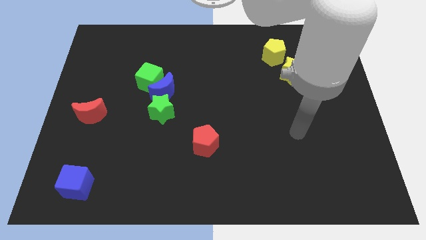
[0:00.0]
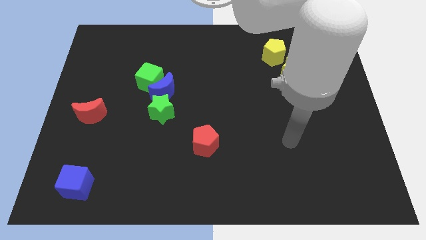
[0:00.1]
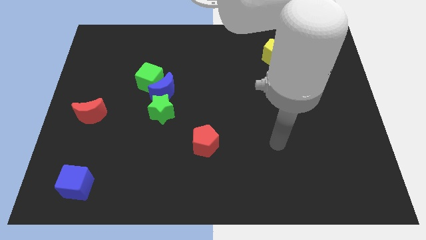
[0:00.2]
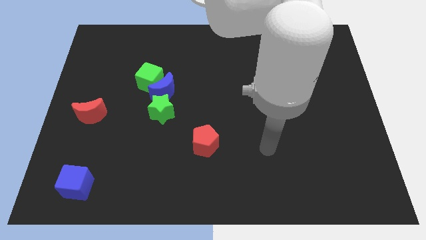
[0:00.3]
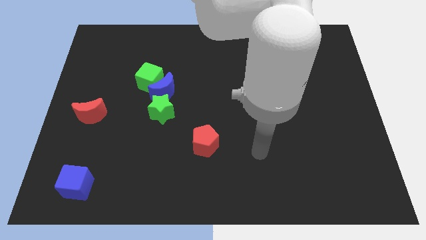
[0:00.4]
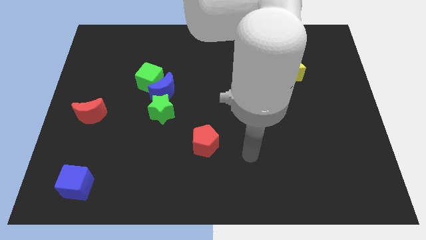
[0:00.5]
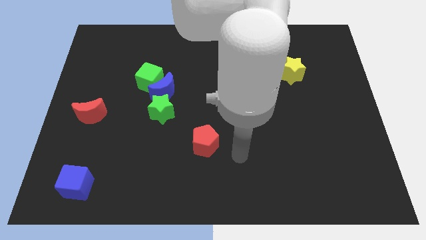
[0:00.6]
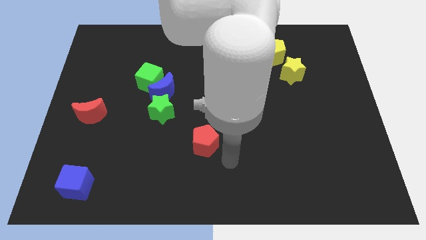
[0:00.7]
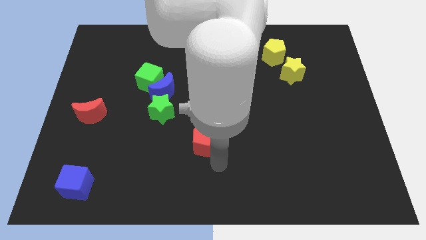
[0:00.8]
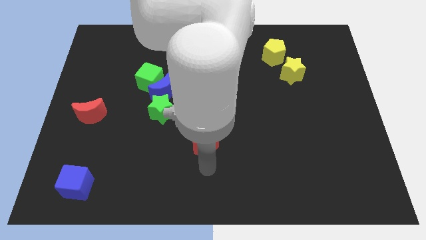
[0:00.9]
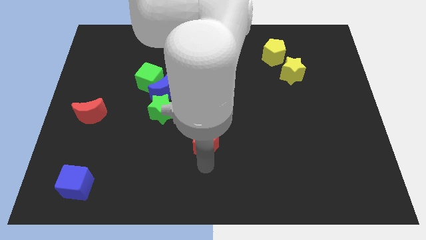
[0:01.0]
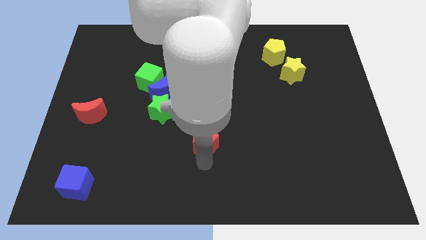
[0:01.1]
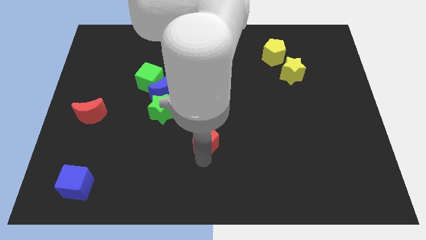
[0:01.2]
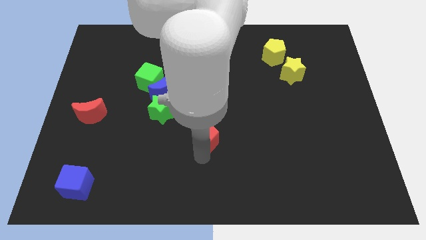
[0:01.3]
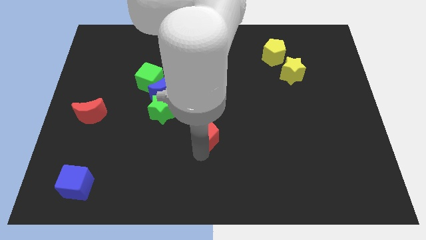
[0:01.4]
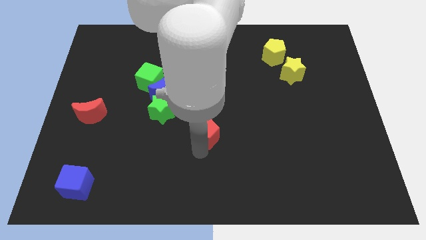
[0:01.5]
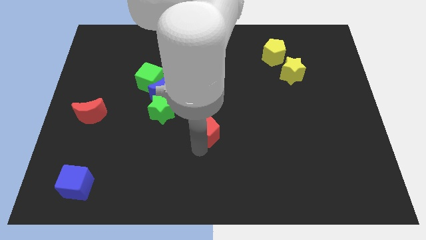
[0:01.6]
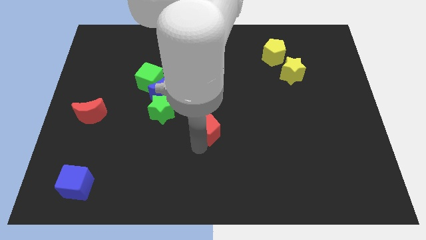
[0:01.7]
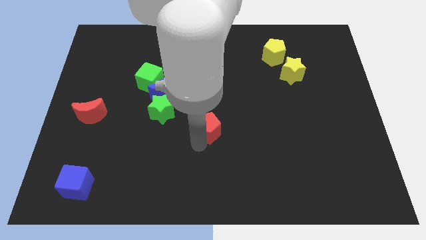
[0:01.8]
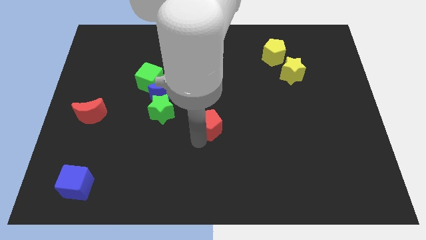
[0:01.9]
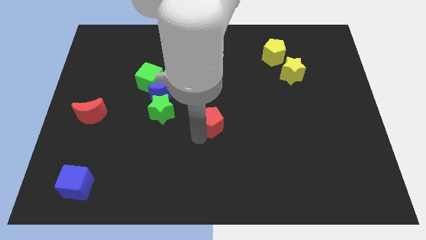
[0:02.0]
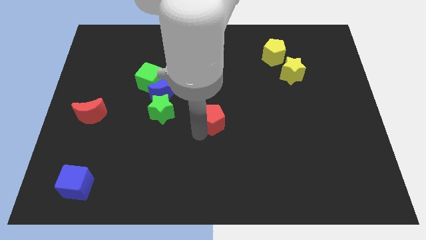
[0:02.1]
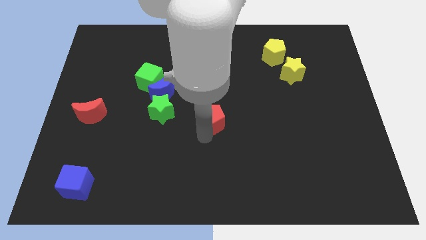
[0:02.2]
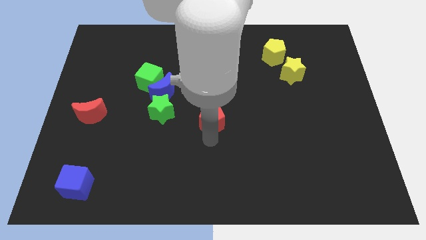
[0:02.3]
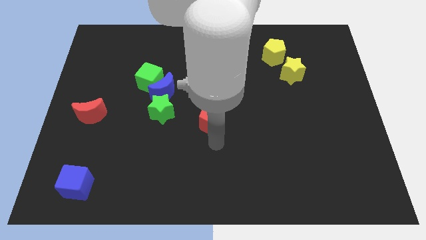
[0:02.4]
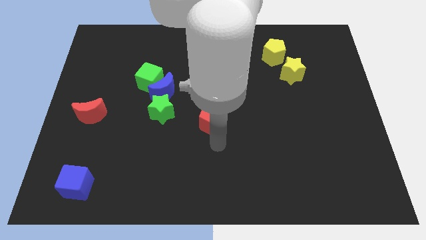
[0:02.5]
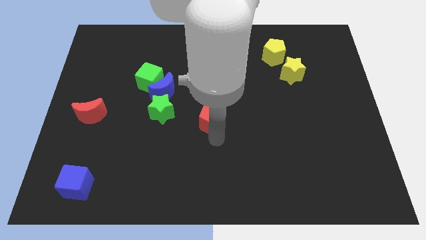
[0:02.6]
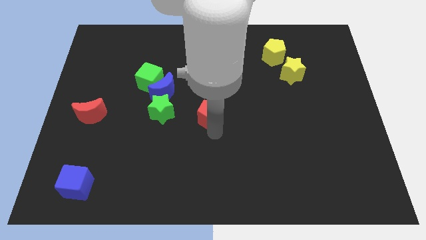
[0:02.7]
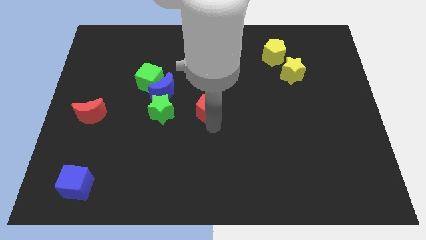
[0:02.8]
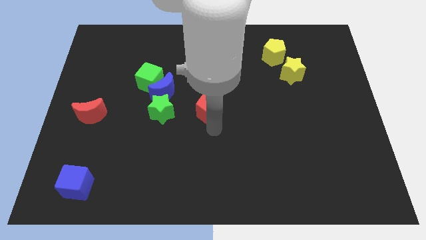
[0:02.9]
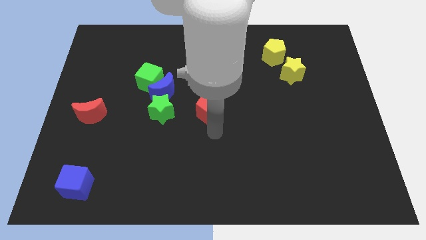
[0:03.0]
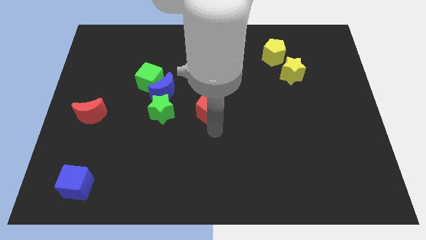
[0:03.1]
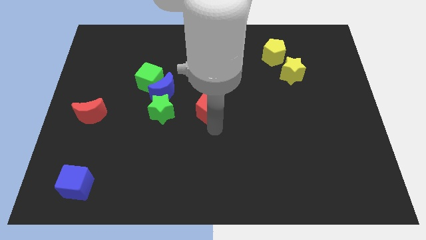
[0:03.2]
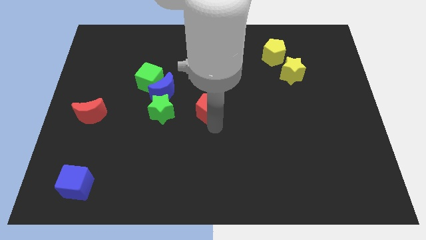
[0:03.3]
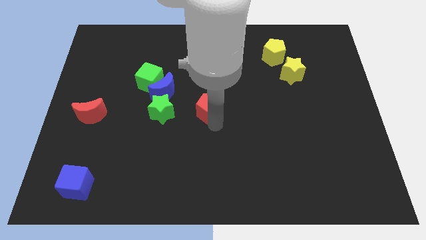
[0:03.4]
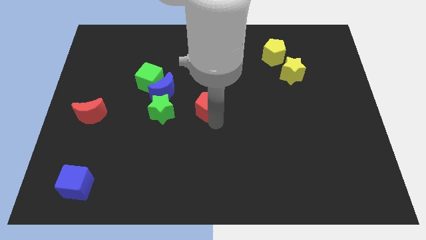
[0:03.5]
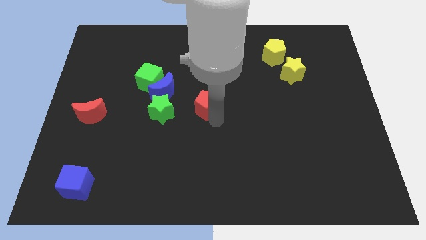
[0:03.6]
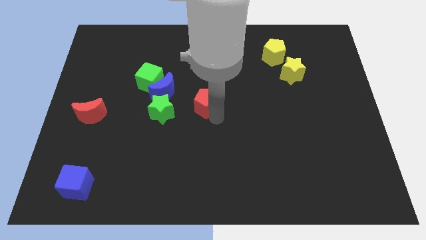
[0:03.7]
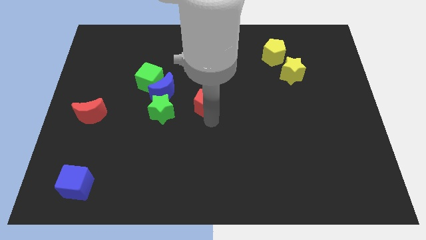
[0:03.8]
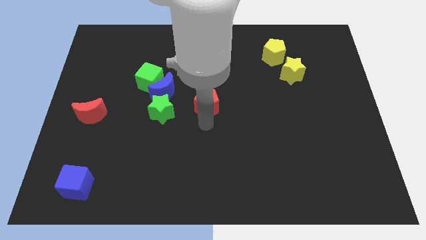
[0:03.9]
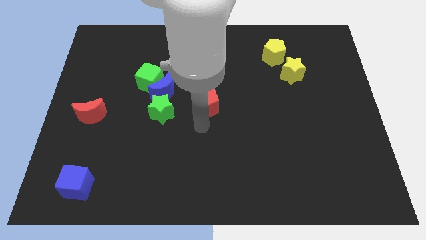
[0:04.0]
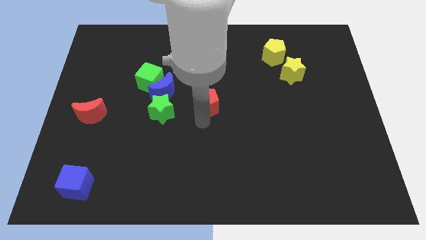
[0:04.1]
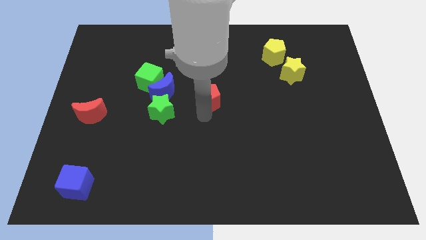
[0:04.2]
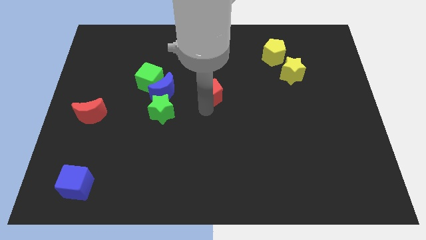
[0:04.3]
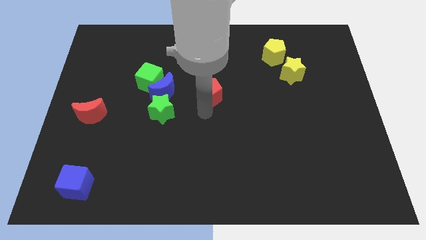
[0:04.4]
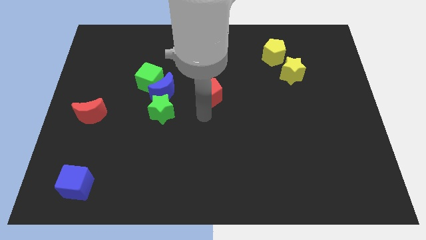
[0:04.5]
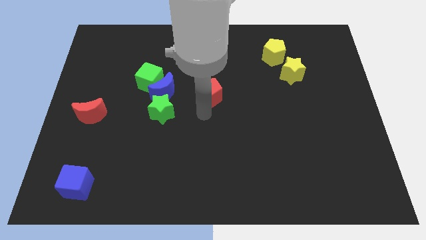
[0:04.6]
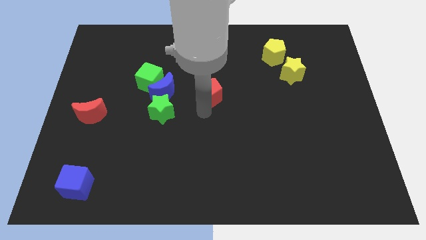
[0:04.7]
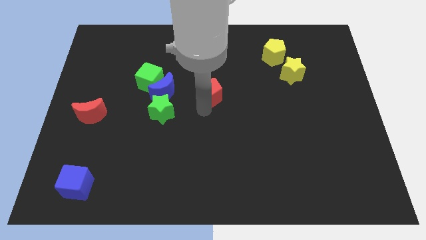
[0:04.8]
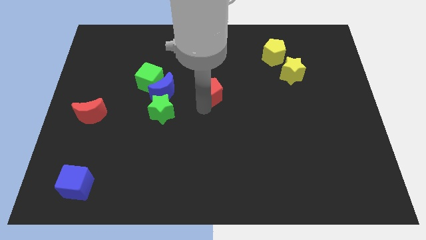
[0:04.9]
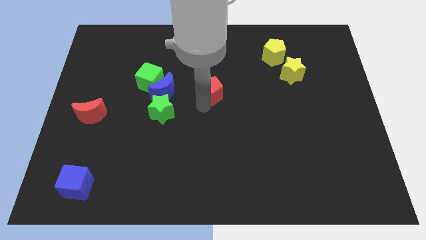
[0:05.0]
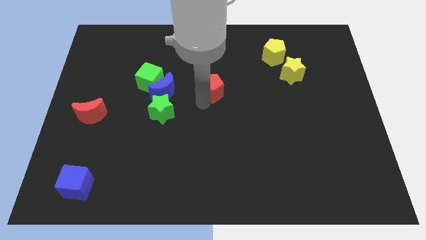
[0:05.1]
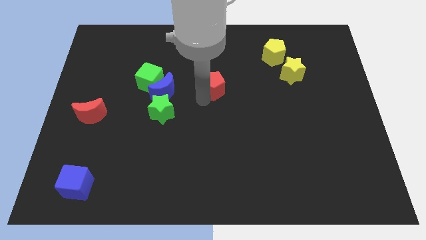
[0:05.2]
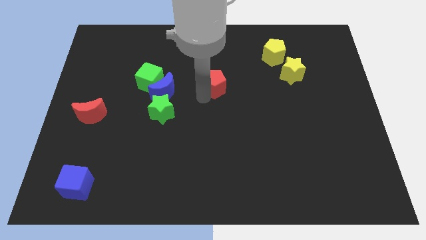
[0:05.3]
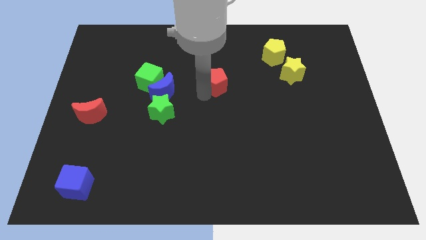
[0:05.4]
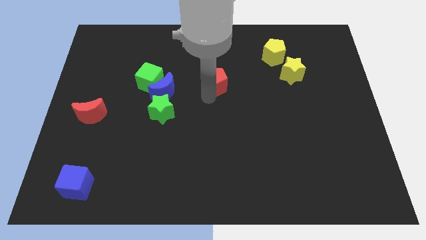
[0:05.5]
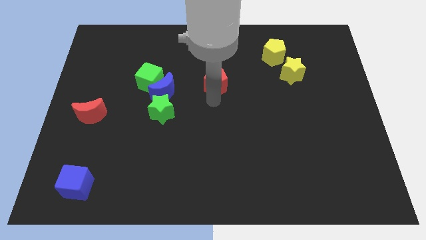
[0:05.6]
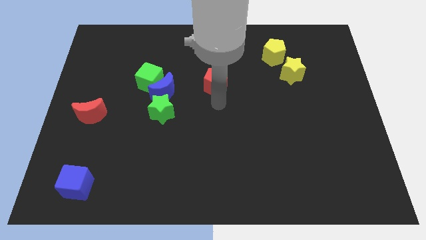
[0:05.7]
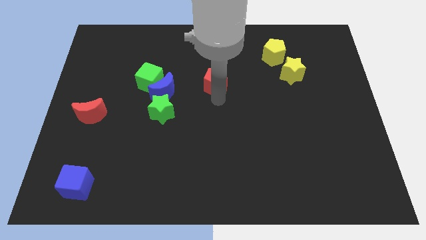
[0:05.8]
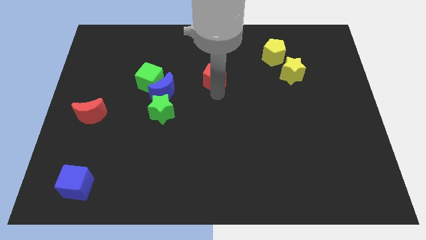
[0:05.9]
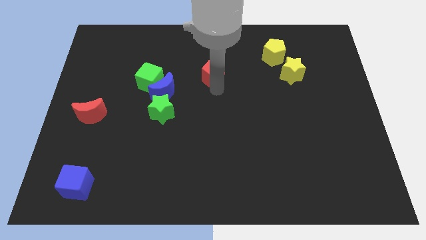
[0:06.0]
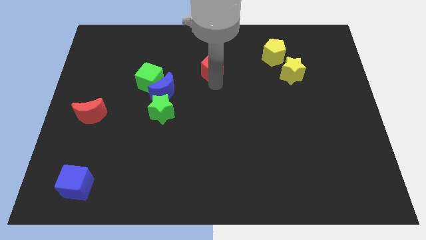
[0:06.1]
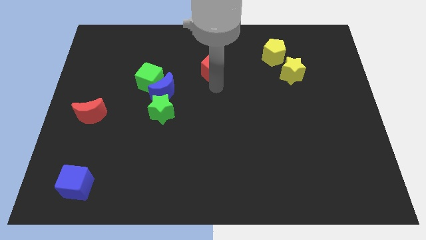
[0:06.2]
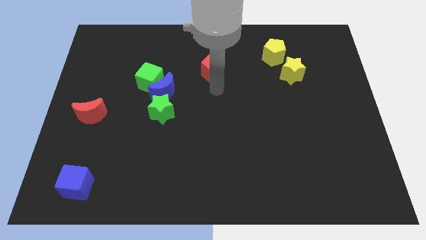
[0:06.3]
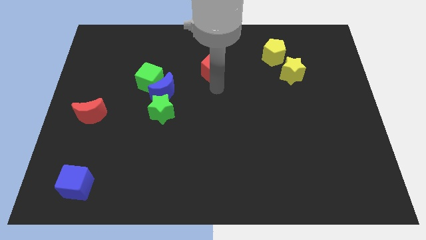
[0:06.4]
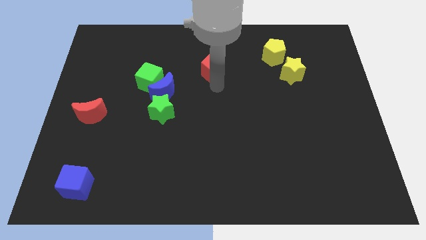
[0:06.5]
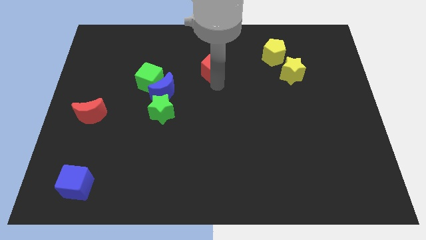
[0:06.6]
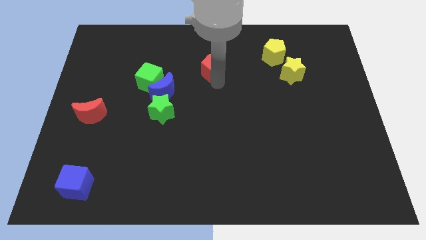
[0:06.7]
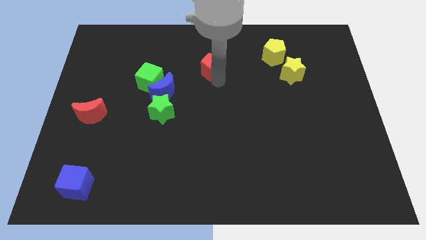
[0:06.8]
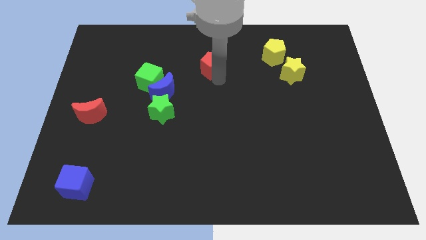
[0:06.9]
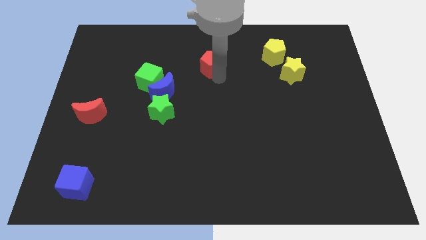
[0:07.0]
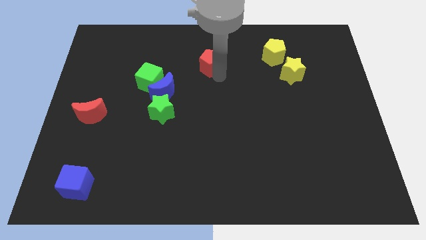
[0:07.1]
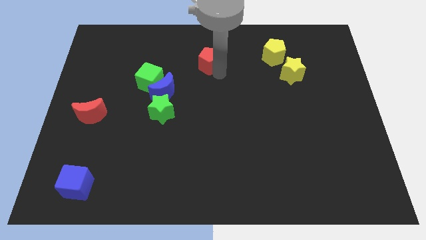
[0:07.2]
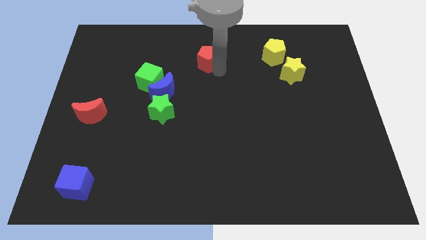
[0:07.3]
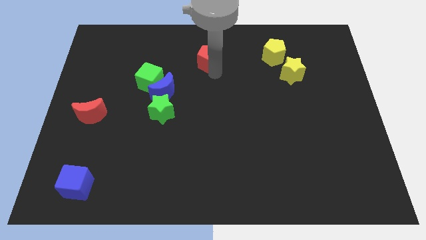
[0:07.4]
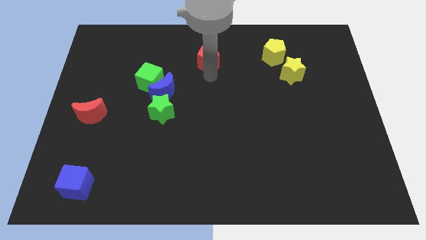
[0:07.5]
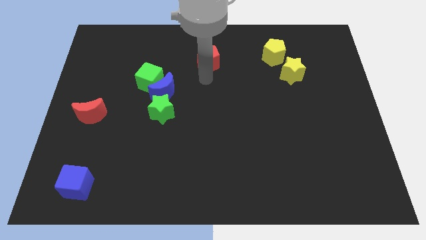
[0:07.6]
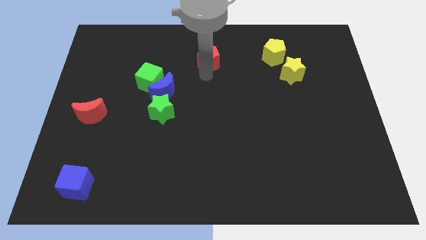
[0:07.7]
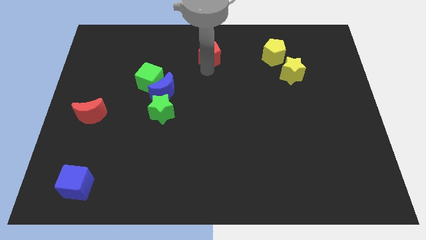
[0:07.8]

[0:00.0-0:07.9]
put the red pentagon to the top
